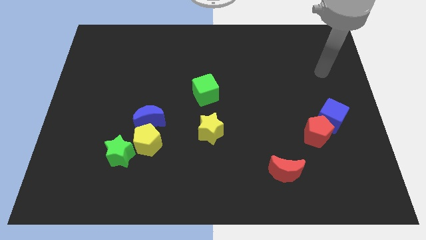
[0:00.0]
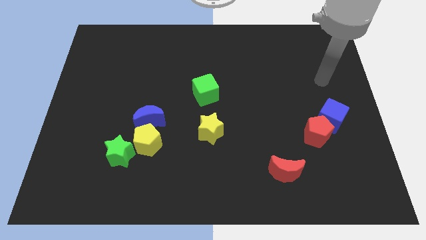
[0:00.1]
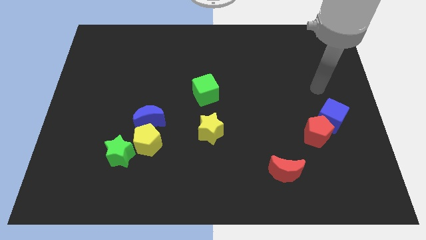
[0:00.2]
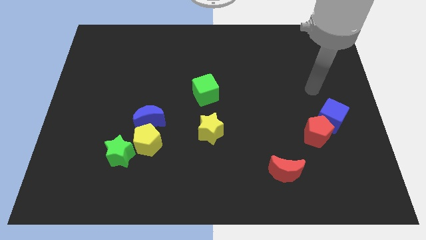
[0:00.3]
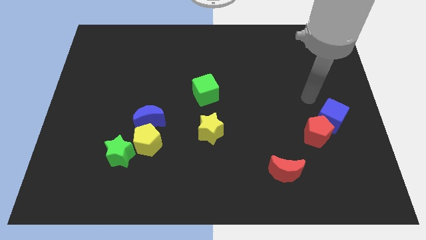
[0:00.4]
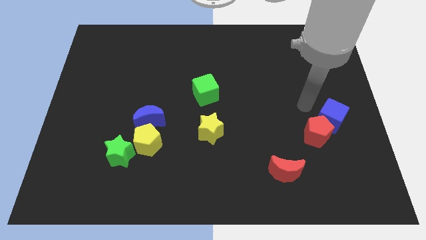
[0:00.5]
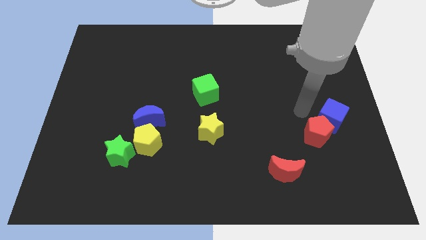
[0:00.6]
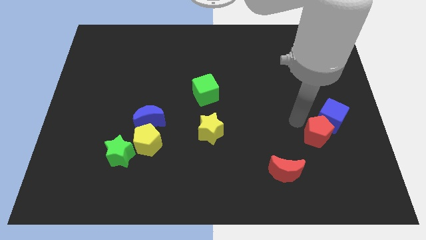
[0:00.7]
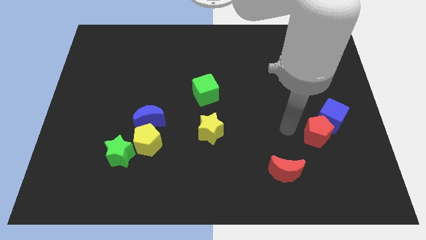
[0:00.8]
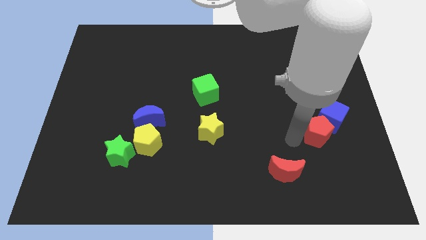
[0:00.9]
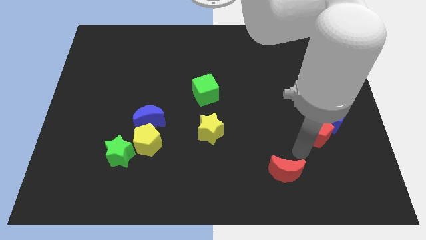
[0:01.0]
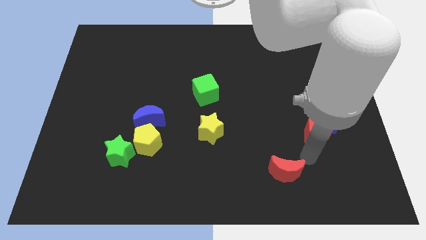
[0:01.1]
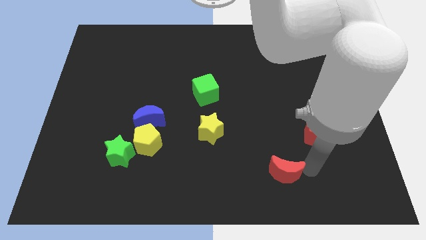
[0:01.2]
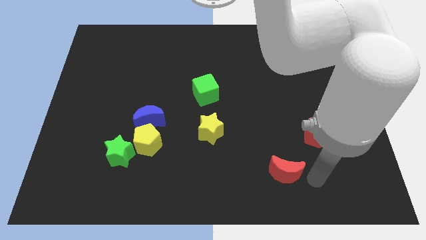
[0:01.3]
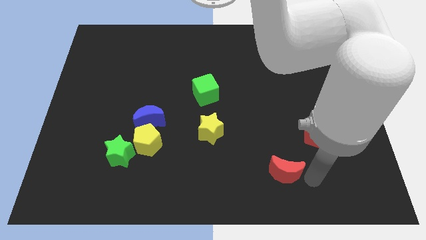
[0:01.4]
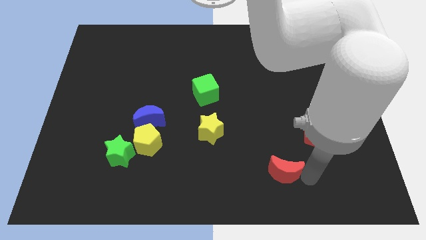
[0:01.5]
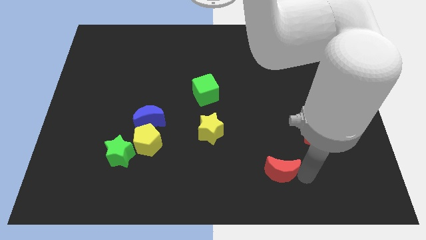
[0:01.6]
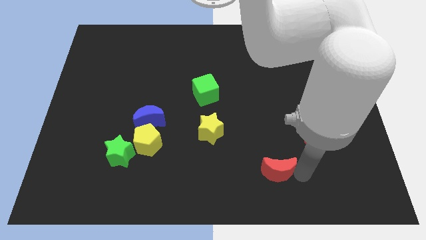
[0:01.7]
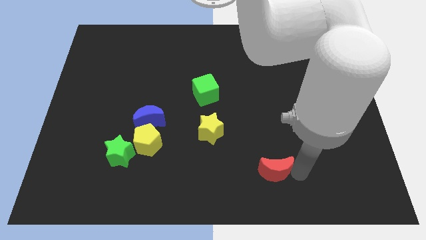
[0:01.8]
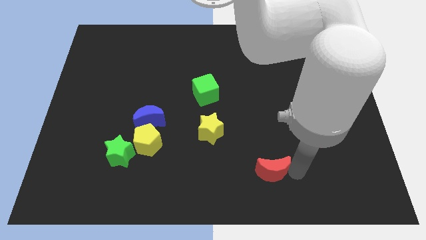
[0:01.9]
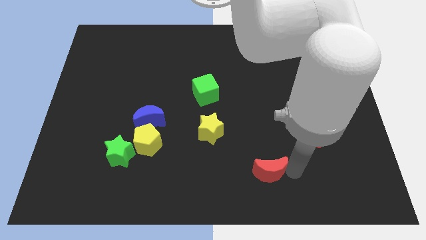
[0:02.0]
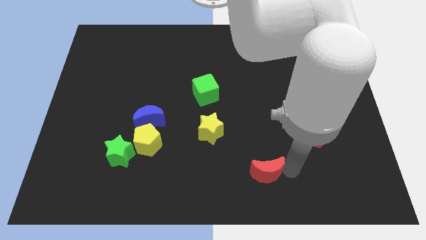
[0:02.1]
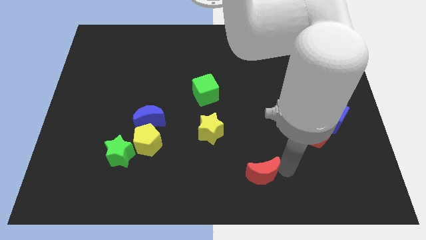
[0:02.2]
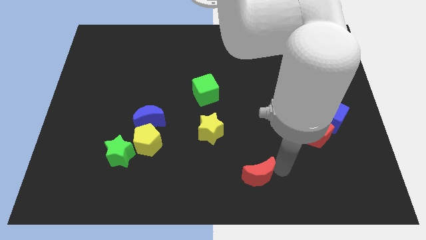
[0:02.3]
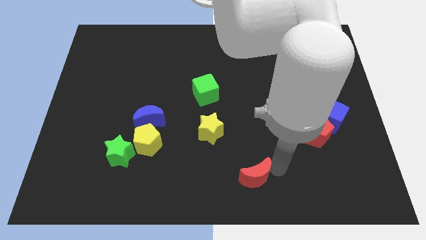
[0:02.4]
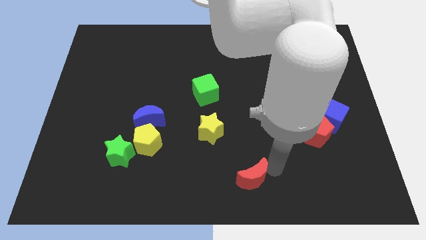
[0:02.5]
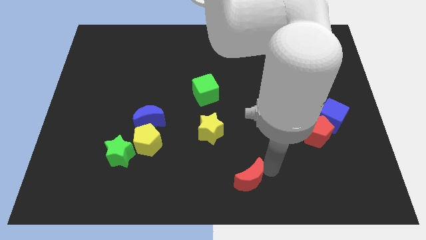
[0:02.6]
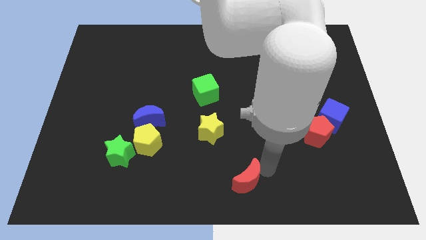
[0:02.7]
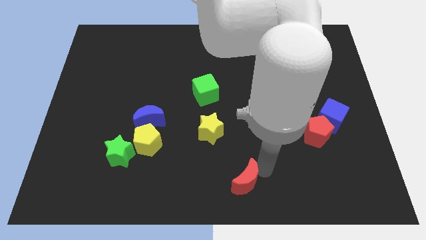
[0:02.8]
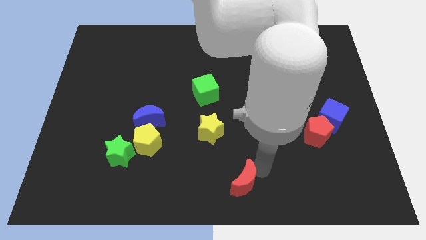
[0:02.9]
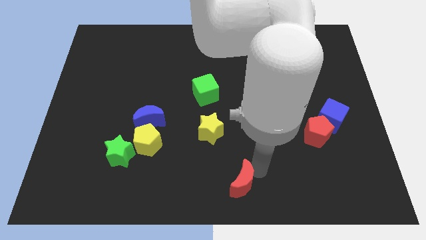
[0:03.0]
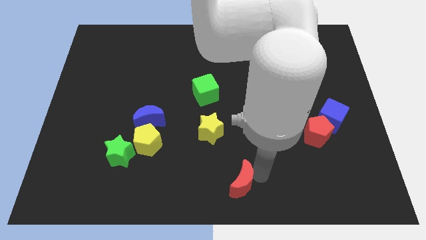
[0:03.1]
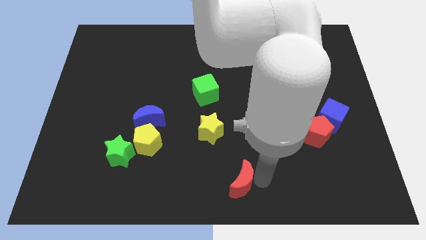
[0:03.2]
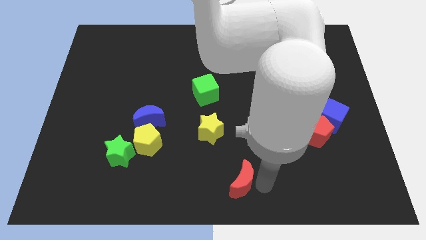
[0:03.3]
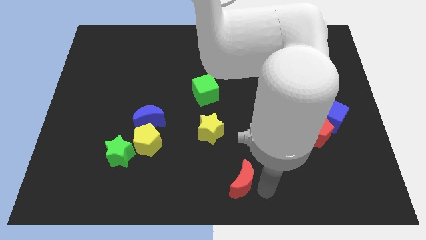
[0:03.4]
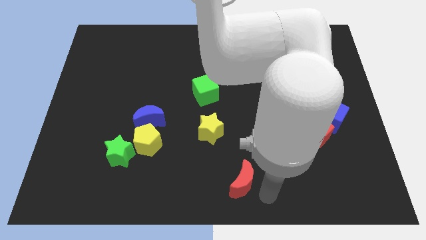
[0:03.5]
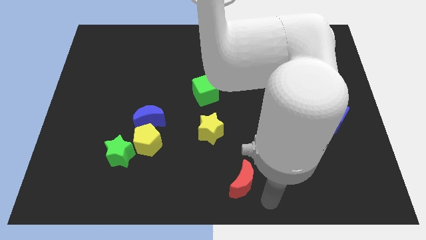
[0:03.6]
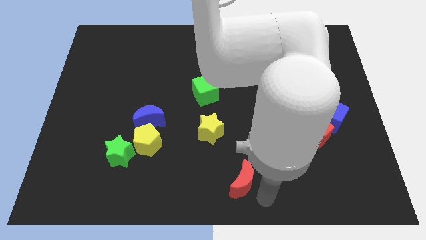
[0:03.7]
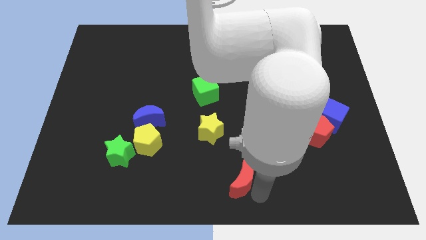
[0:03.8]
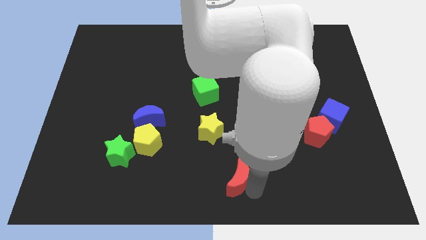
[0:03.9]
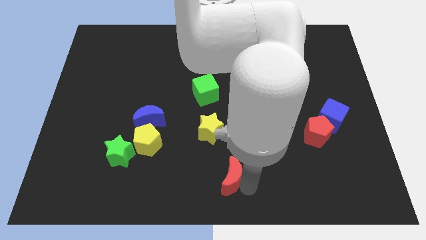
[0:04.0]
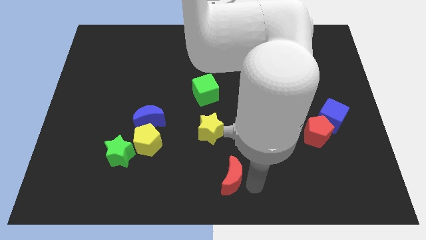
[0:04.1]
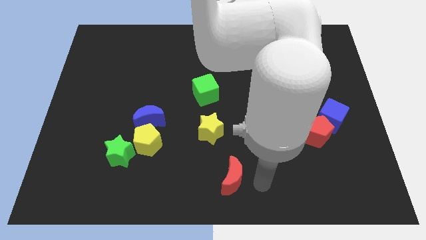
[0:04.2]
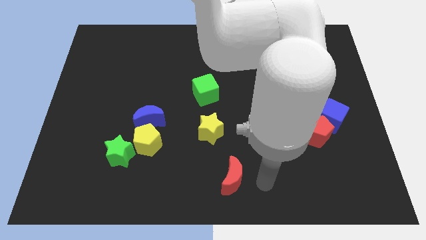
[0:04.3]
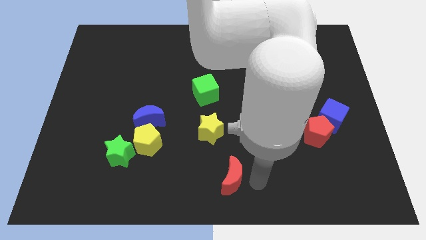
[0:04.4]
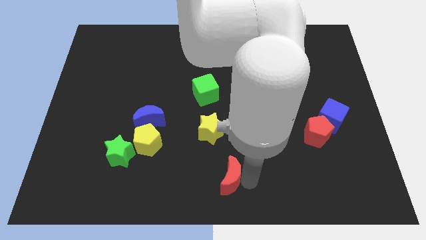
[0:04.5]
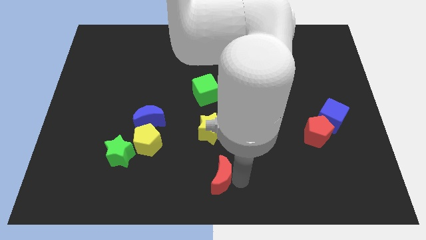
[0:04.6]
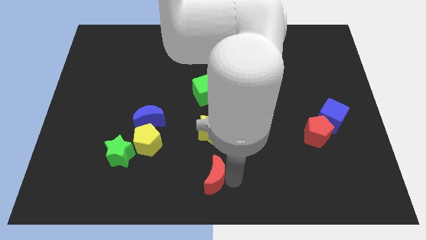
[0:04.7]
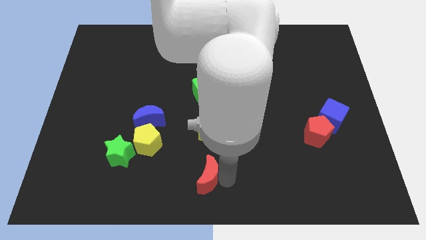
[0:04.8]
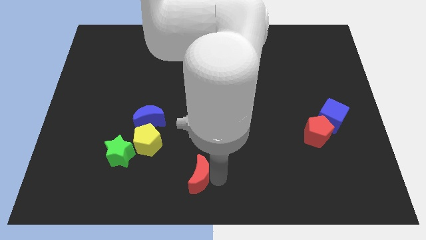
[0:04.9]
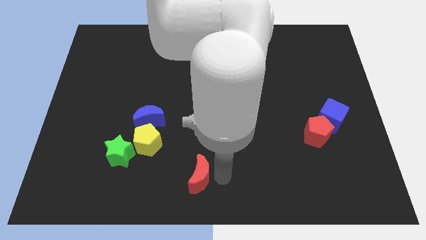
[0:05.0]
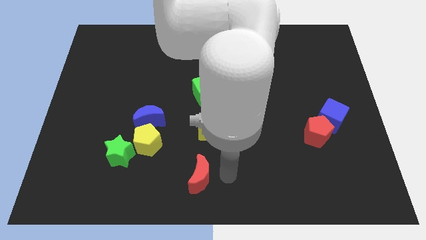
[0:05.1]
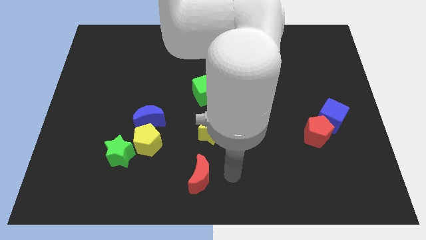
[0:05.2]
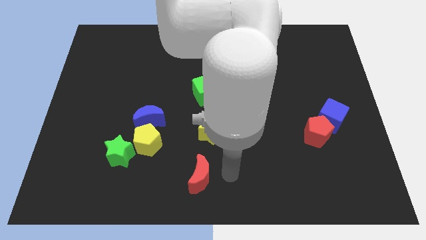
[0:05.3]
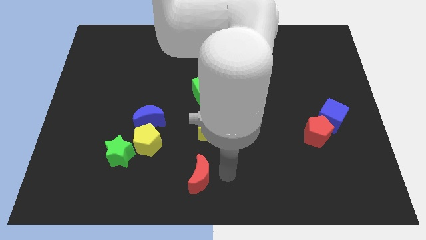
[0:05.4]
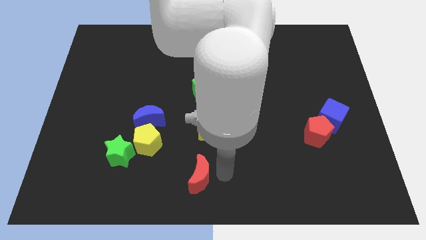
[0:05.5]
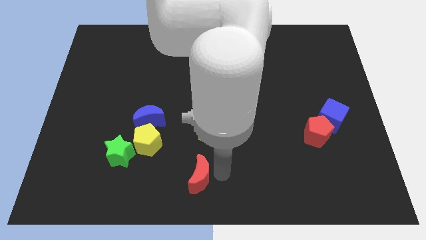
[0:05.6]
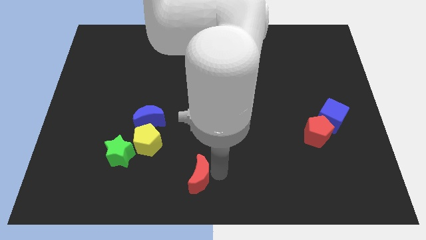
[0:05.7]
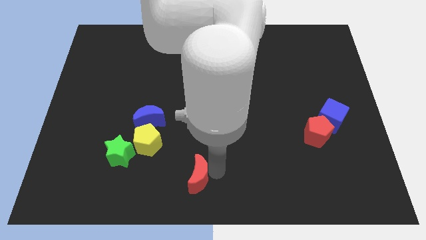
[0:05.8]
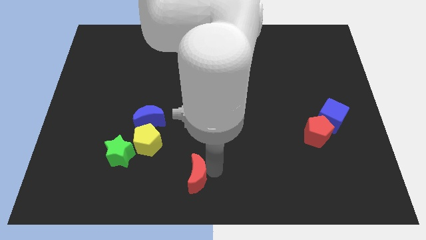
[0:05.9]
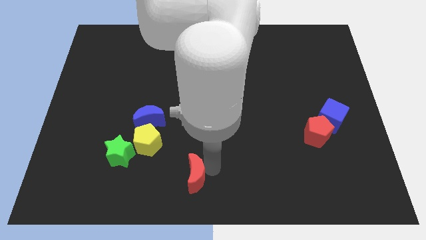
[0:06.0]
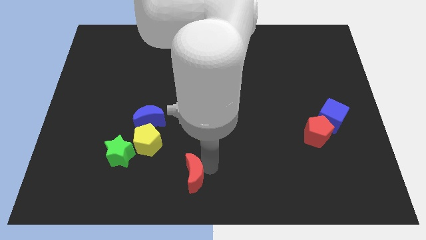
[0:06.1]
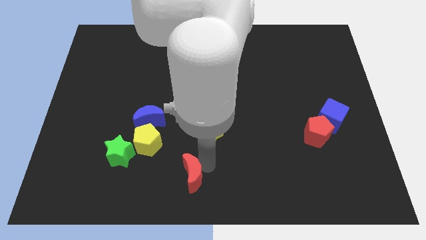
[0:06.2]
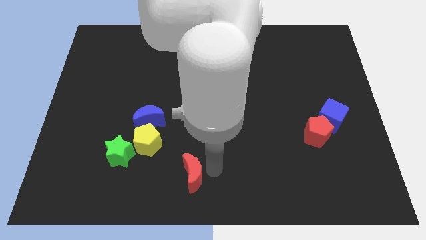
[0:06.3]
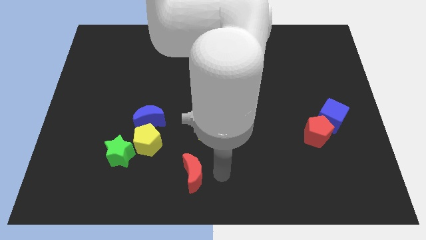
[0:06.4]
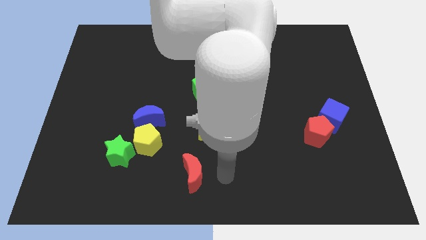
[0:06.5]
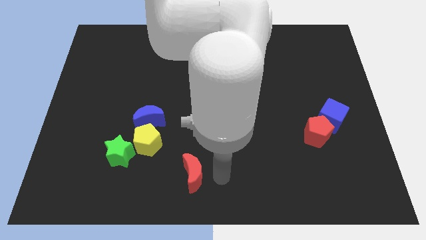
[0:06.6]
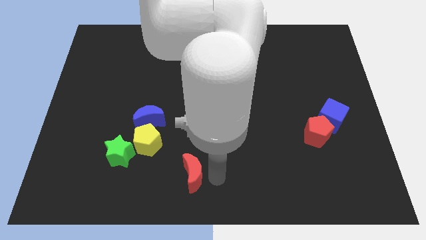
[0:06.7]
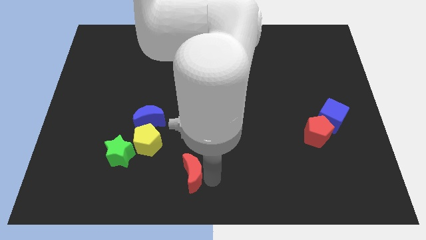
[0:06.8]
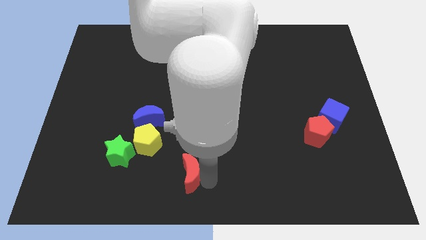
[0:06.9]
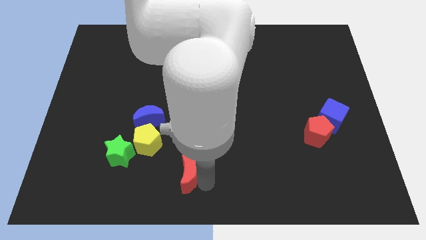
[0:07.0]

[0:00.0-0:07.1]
slide the red moon to the left

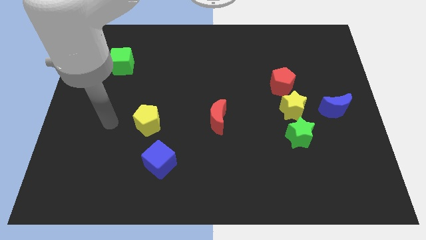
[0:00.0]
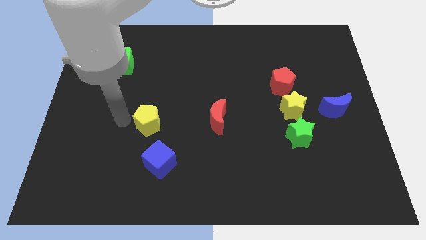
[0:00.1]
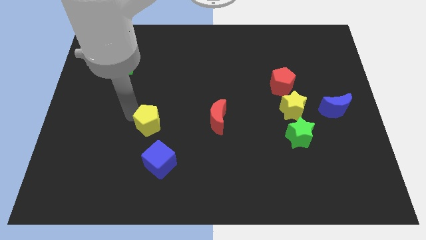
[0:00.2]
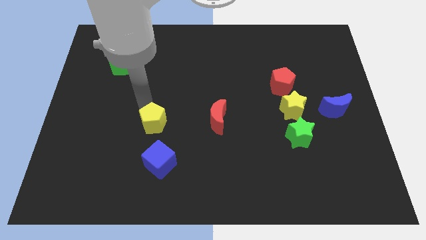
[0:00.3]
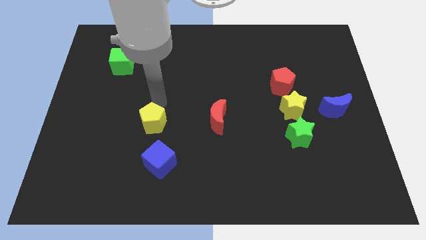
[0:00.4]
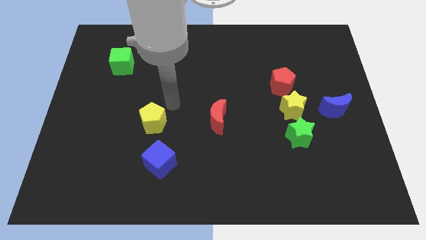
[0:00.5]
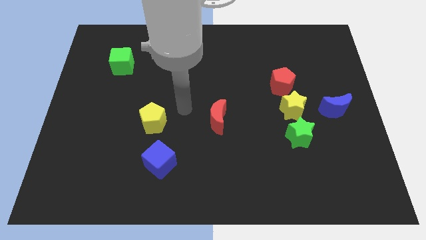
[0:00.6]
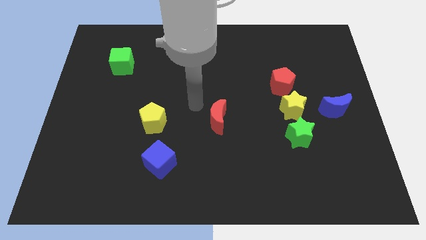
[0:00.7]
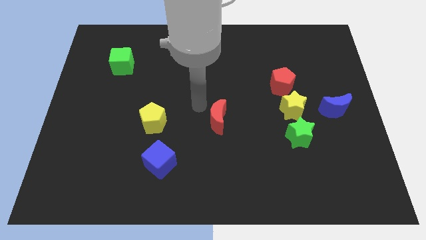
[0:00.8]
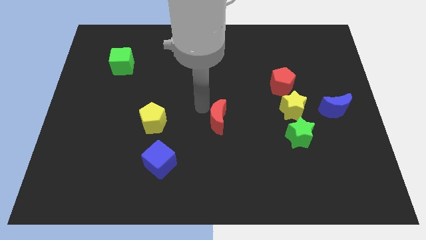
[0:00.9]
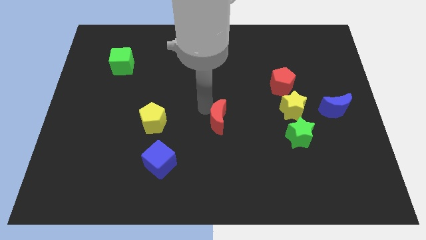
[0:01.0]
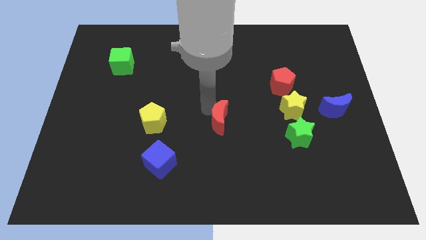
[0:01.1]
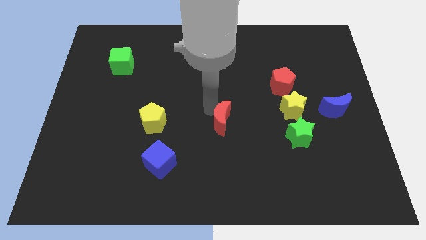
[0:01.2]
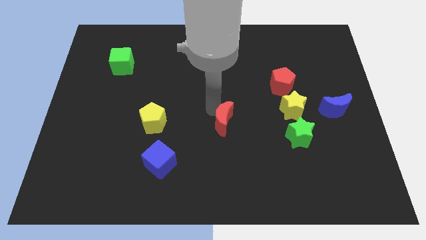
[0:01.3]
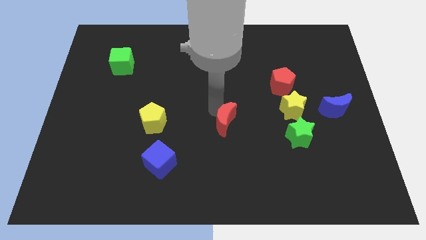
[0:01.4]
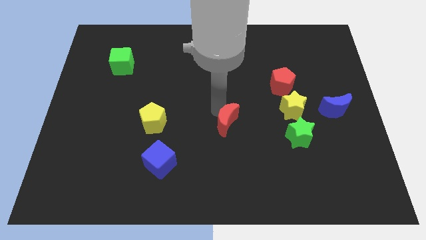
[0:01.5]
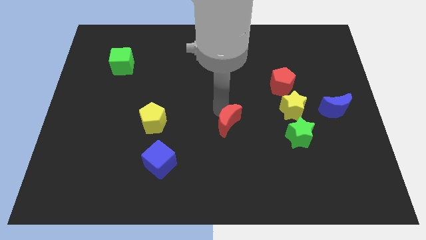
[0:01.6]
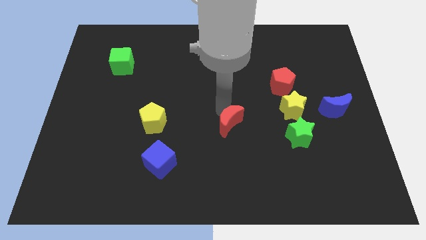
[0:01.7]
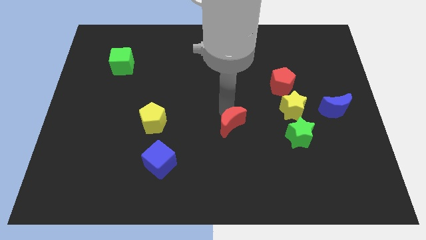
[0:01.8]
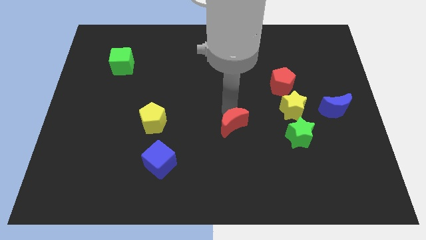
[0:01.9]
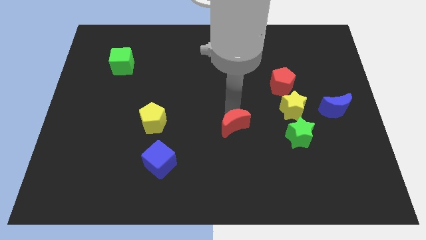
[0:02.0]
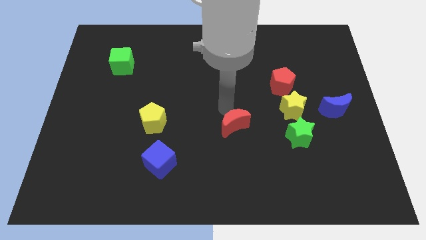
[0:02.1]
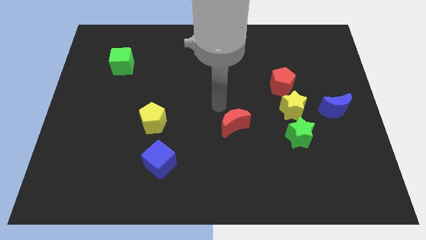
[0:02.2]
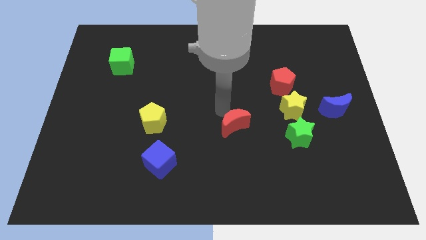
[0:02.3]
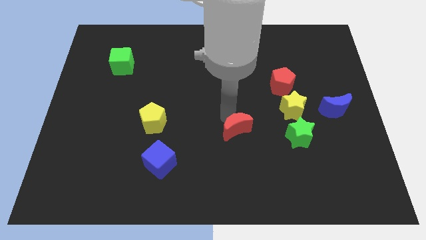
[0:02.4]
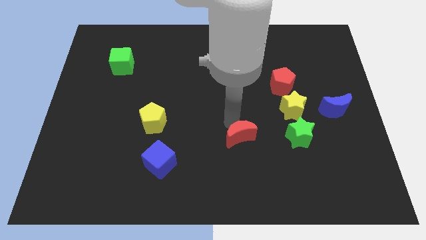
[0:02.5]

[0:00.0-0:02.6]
slightly move the red moon diagonally down and to the right
